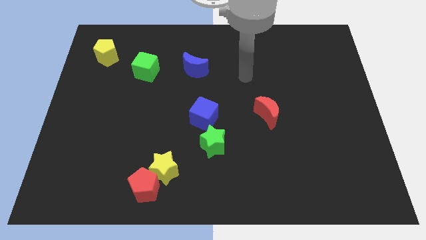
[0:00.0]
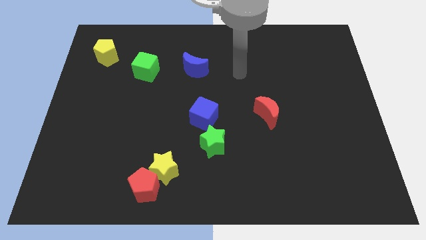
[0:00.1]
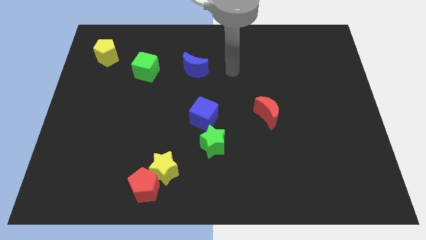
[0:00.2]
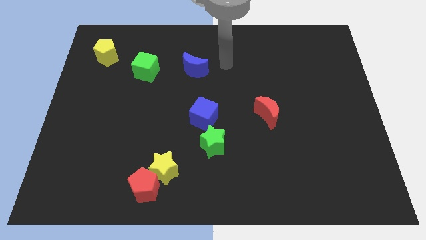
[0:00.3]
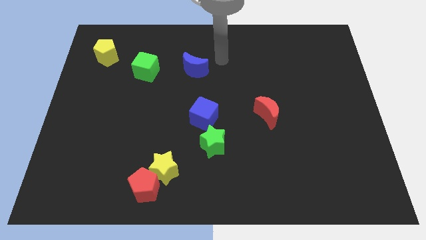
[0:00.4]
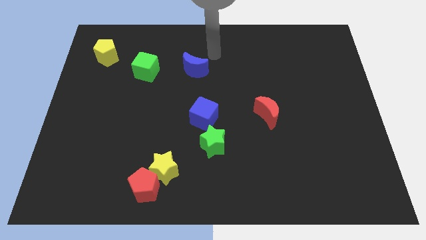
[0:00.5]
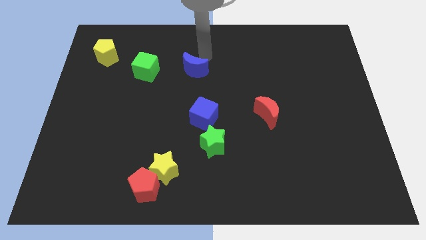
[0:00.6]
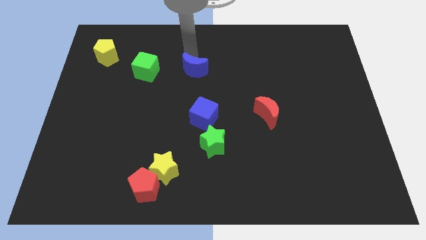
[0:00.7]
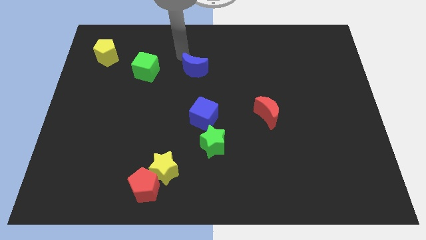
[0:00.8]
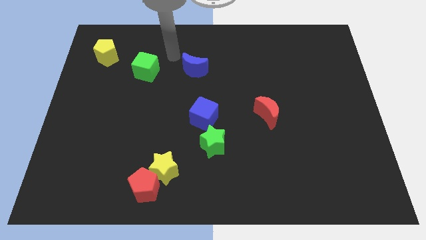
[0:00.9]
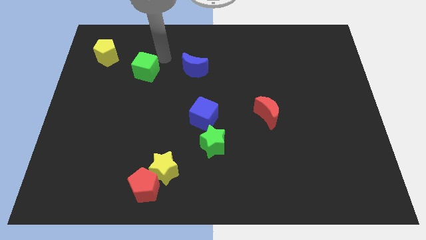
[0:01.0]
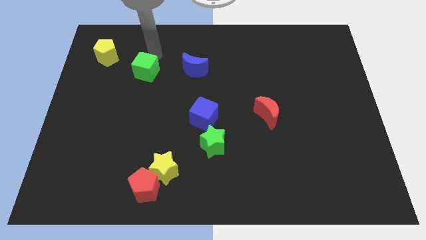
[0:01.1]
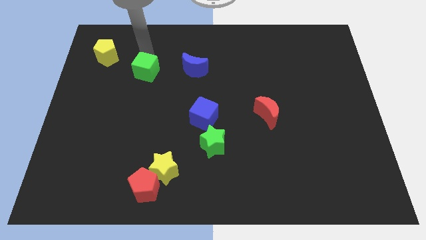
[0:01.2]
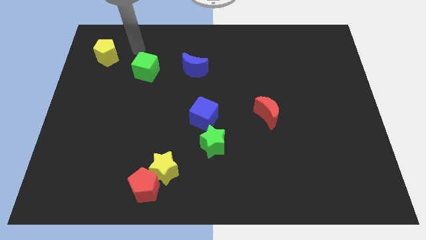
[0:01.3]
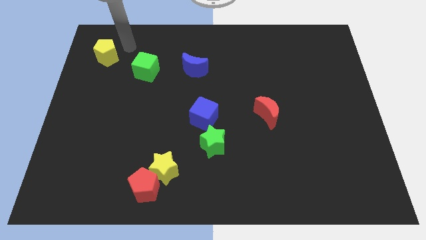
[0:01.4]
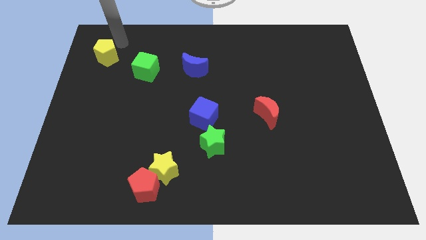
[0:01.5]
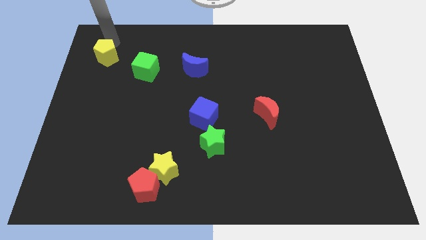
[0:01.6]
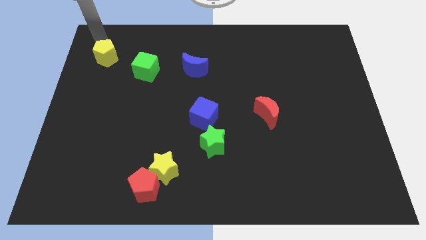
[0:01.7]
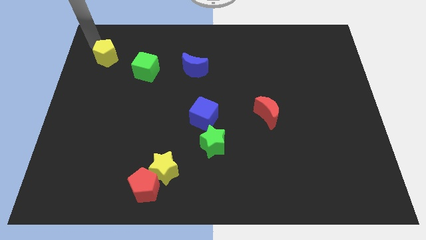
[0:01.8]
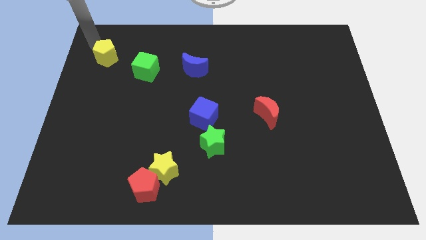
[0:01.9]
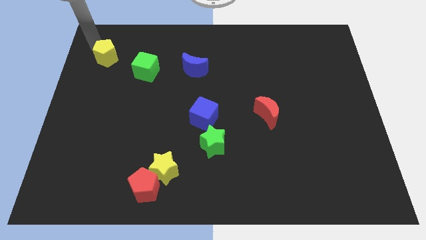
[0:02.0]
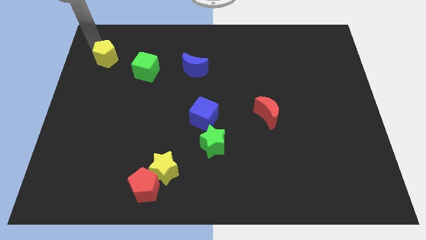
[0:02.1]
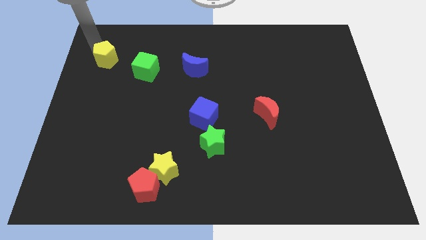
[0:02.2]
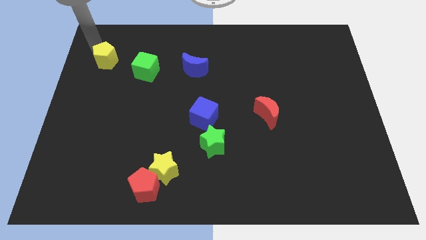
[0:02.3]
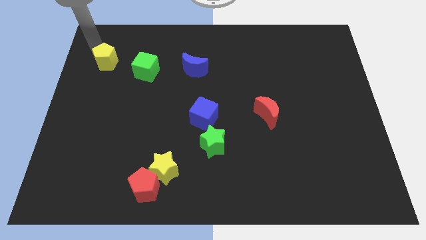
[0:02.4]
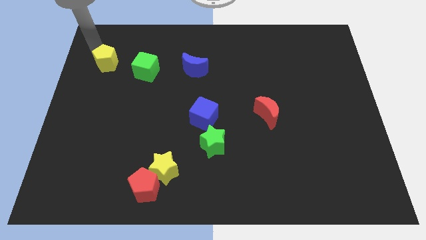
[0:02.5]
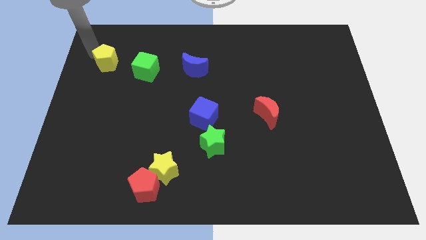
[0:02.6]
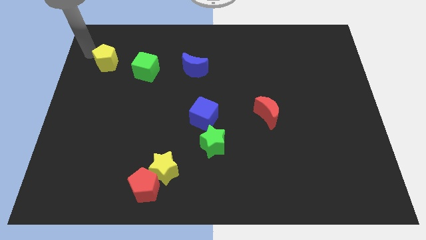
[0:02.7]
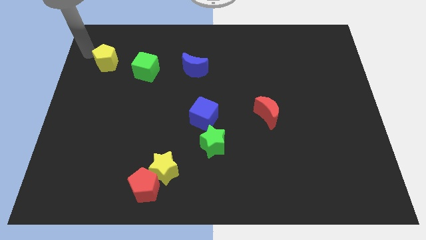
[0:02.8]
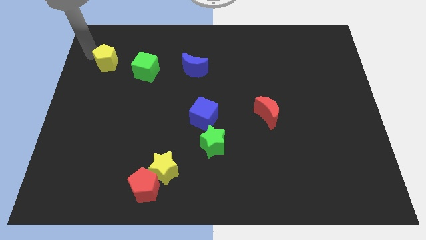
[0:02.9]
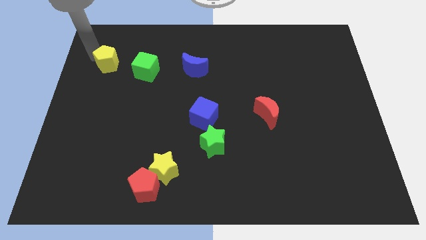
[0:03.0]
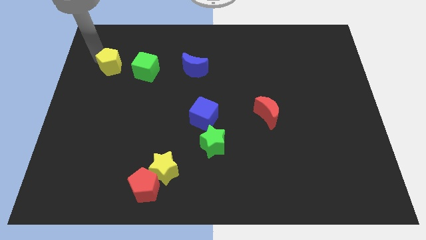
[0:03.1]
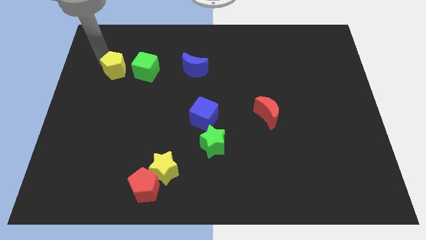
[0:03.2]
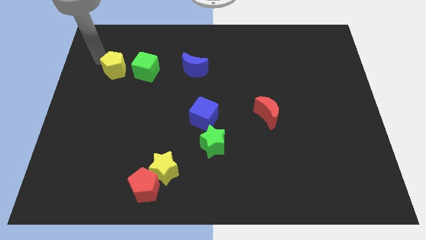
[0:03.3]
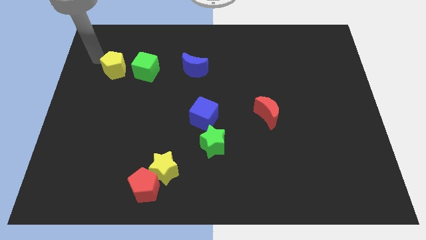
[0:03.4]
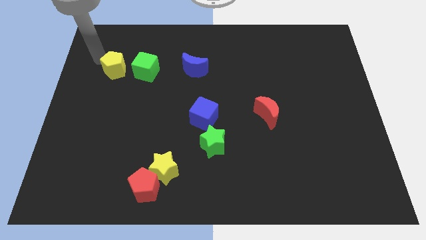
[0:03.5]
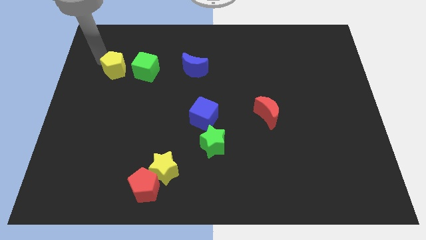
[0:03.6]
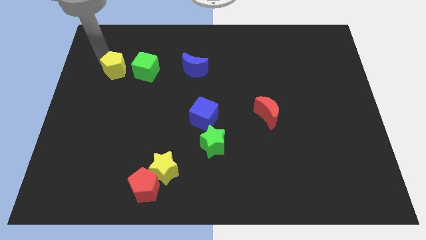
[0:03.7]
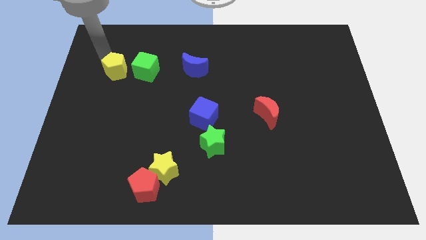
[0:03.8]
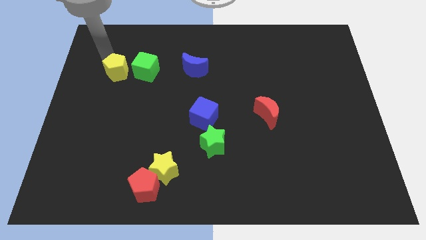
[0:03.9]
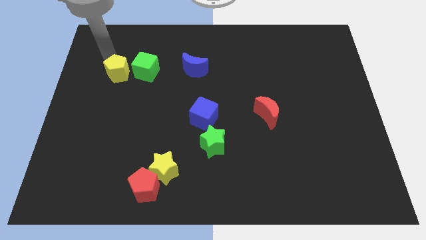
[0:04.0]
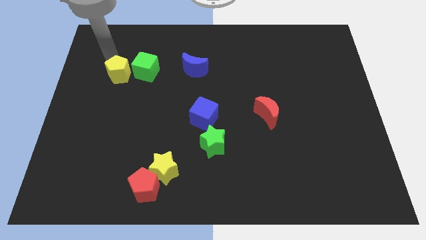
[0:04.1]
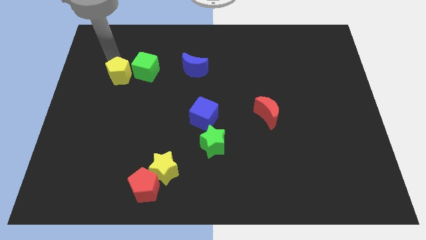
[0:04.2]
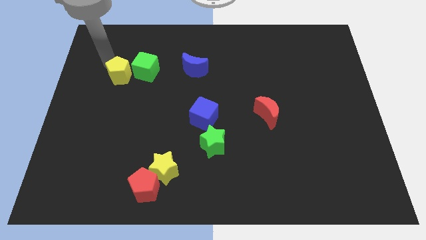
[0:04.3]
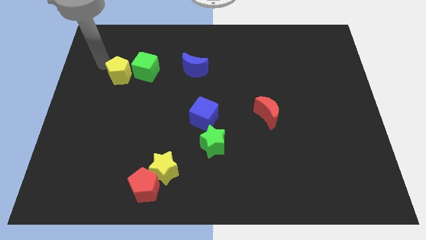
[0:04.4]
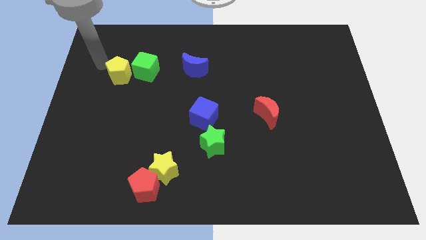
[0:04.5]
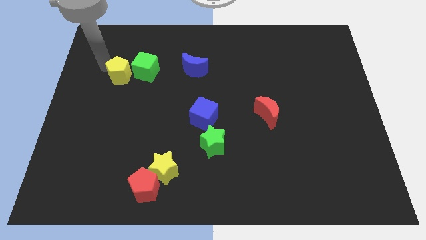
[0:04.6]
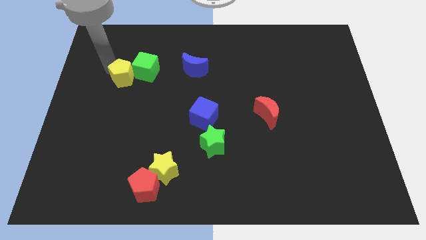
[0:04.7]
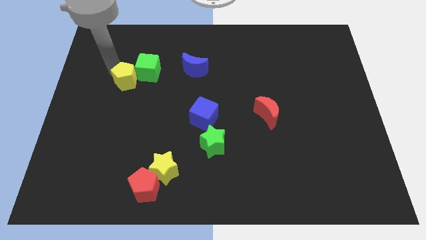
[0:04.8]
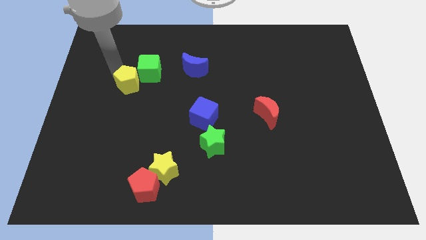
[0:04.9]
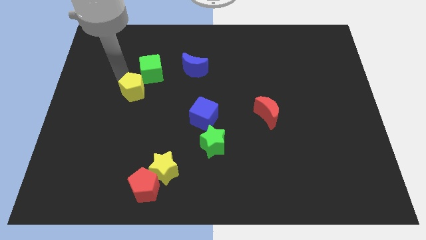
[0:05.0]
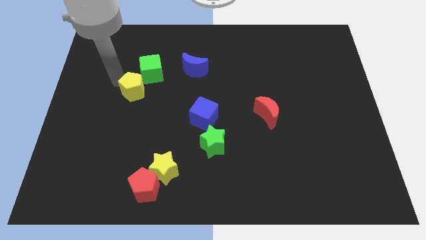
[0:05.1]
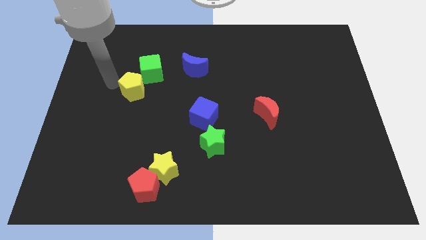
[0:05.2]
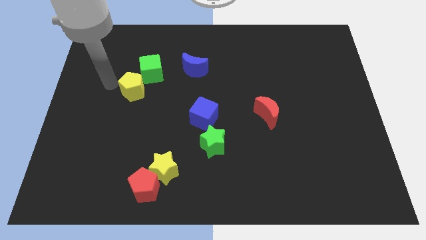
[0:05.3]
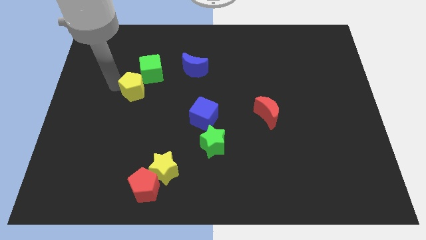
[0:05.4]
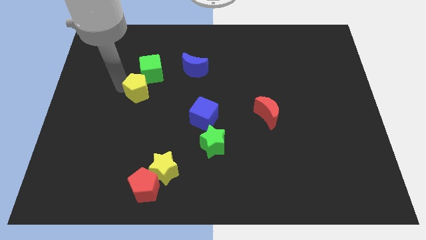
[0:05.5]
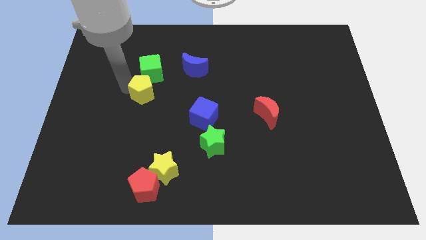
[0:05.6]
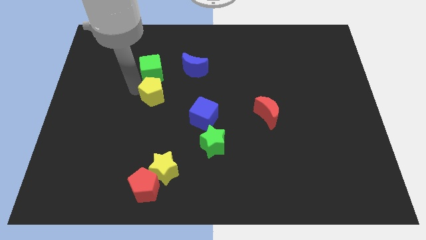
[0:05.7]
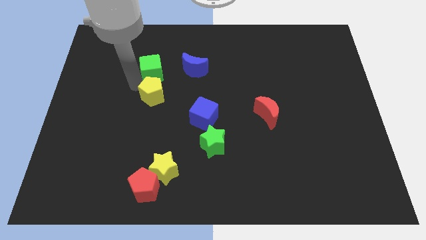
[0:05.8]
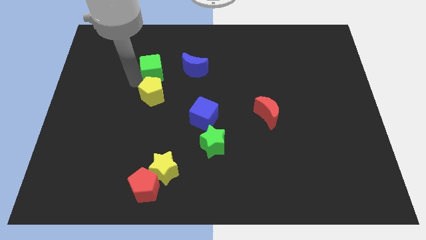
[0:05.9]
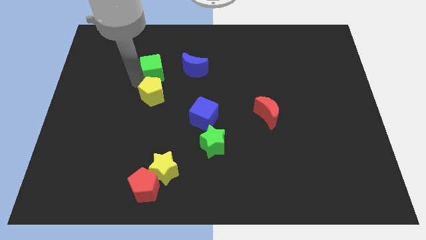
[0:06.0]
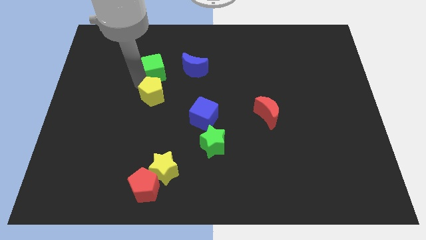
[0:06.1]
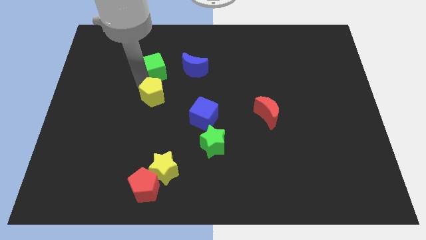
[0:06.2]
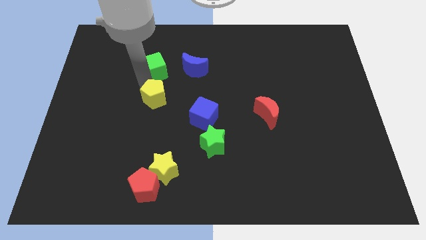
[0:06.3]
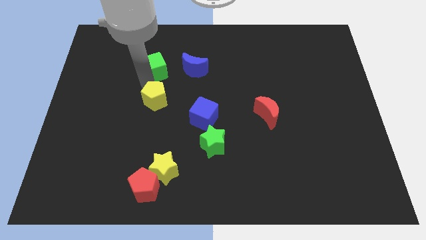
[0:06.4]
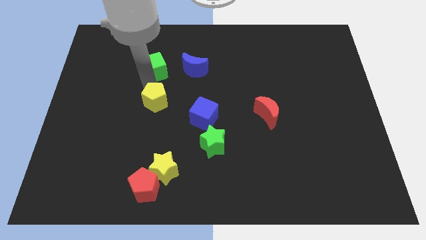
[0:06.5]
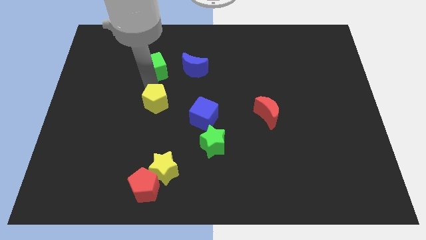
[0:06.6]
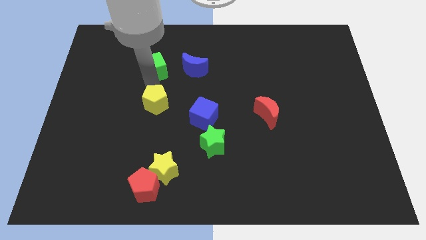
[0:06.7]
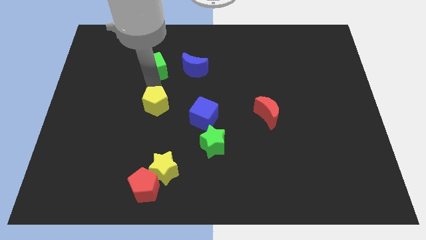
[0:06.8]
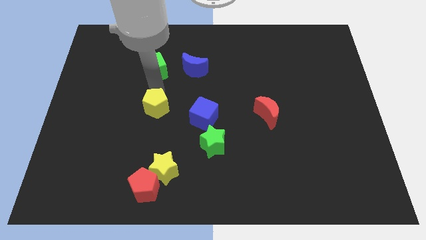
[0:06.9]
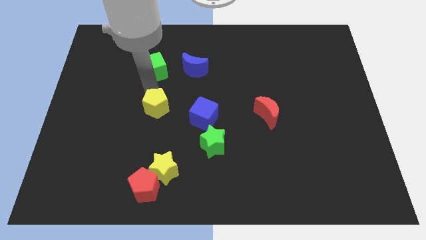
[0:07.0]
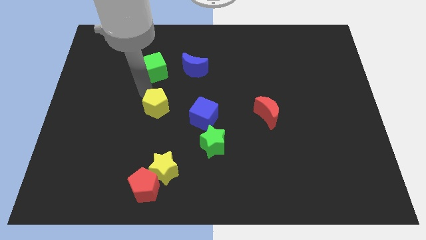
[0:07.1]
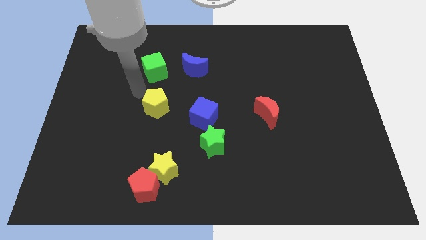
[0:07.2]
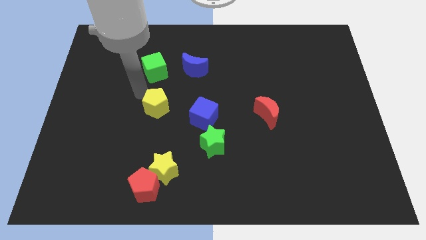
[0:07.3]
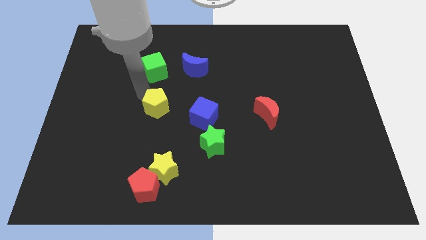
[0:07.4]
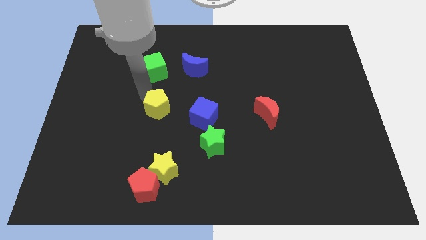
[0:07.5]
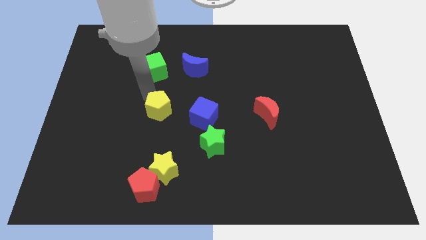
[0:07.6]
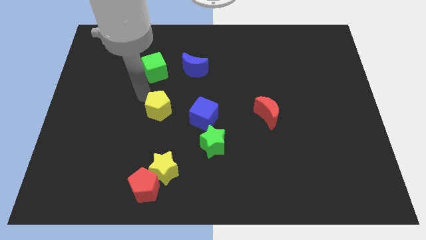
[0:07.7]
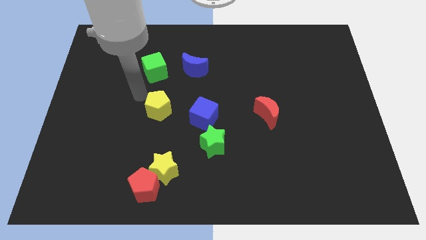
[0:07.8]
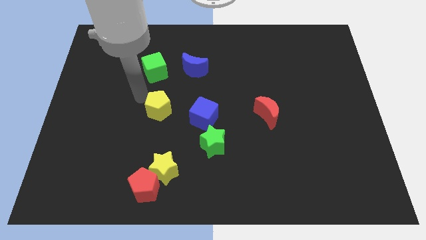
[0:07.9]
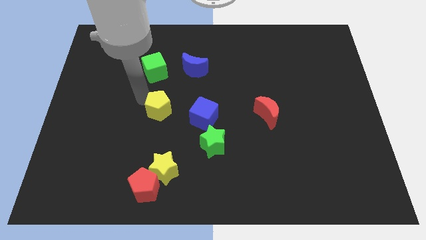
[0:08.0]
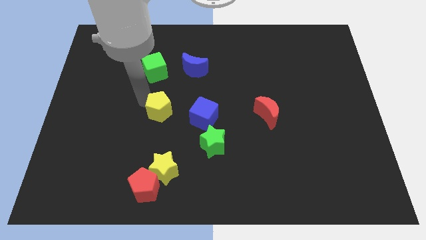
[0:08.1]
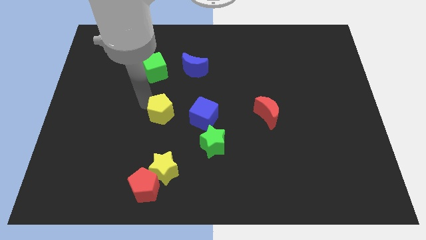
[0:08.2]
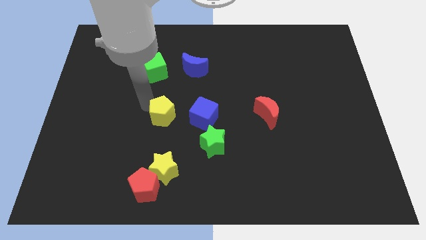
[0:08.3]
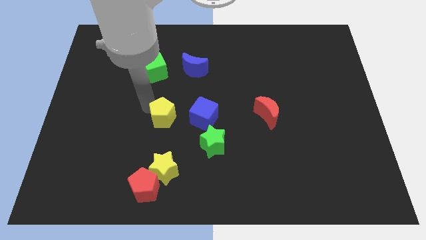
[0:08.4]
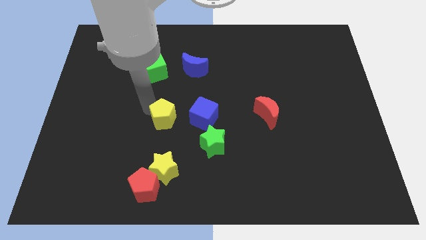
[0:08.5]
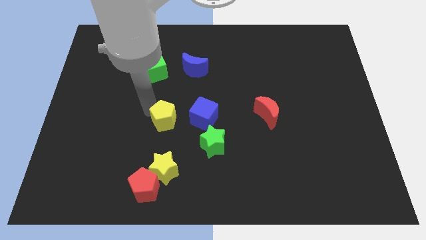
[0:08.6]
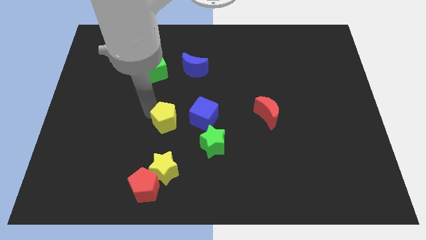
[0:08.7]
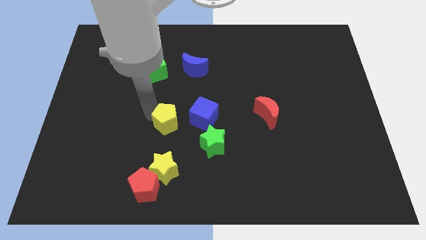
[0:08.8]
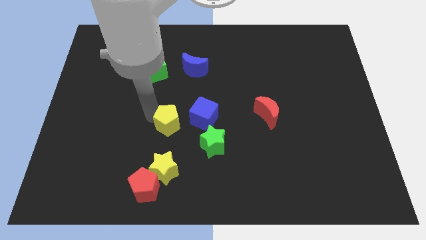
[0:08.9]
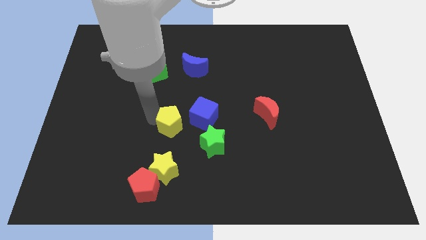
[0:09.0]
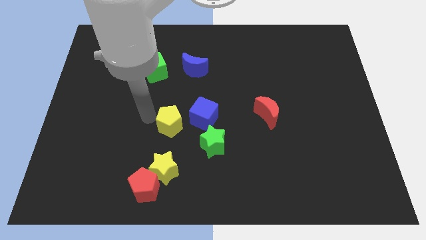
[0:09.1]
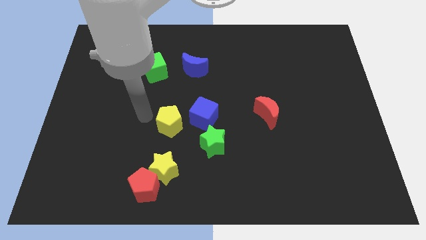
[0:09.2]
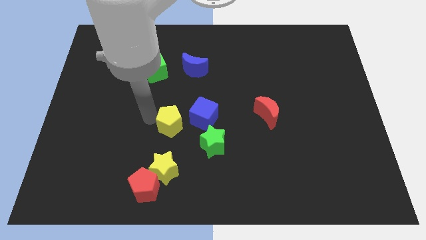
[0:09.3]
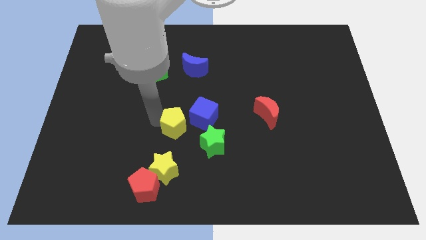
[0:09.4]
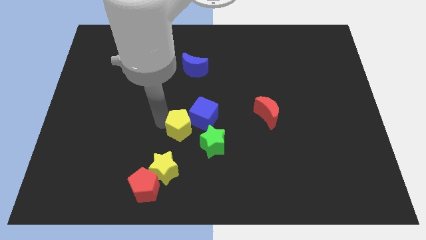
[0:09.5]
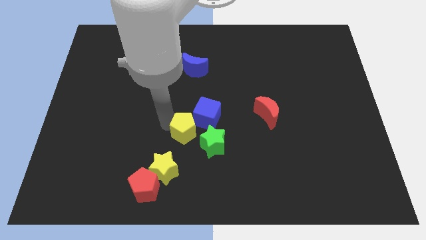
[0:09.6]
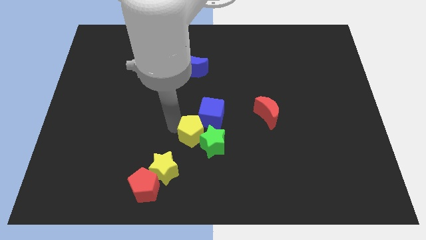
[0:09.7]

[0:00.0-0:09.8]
push the yellow pentagon towards the green star
